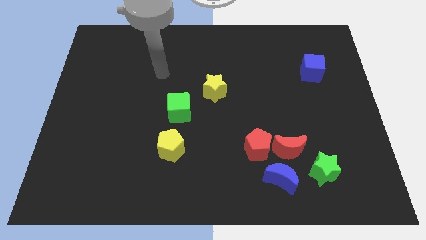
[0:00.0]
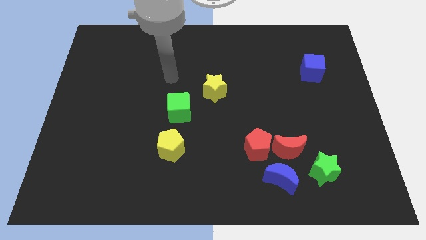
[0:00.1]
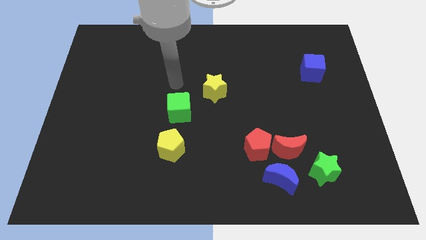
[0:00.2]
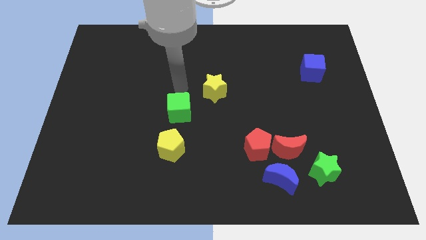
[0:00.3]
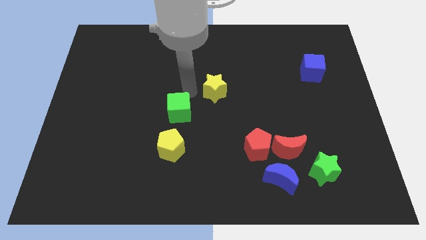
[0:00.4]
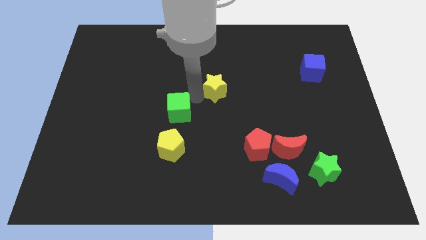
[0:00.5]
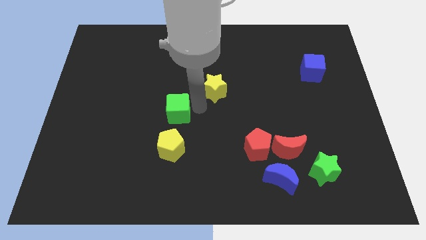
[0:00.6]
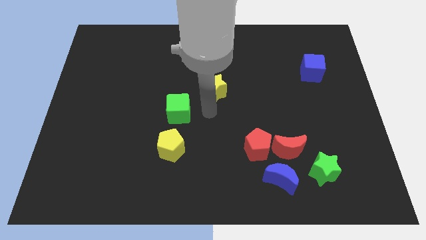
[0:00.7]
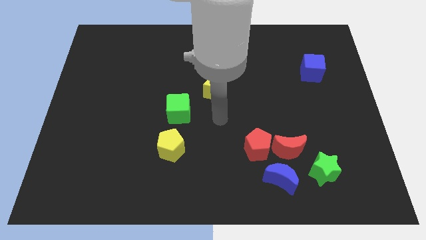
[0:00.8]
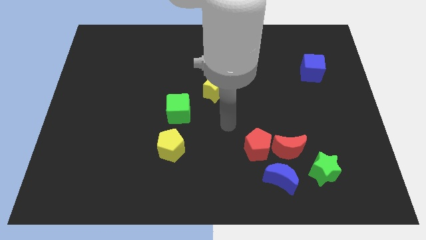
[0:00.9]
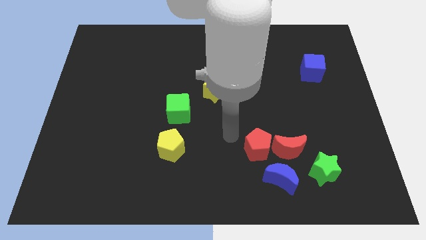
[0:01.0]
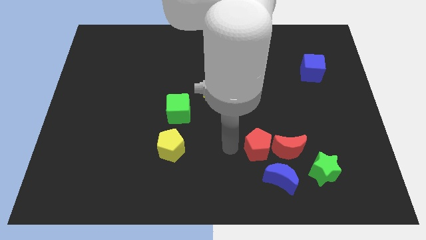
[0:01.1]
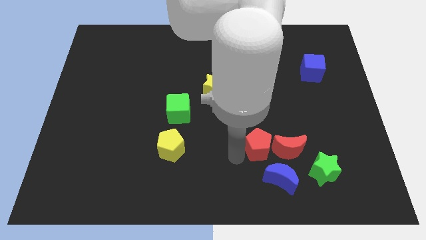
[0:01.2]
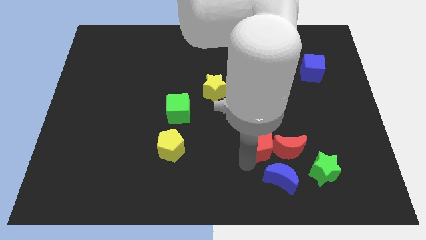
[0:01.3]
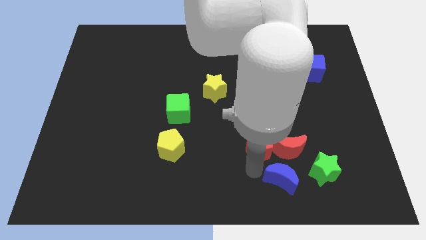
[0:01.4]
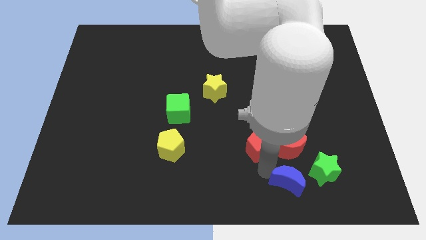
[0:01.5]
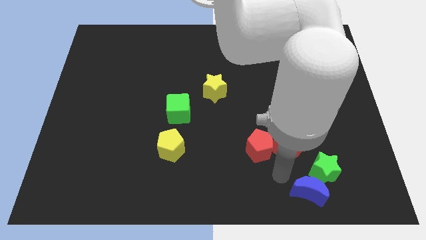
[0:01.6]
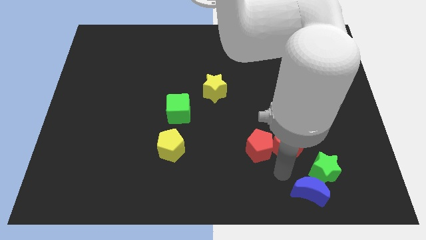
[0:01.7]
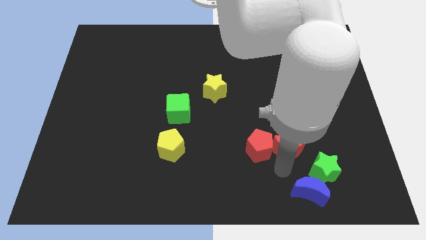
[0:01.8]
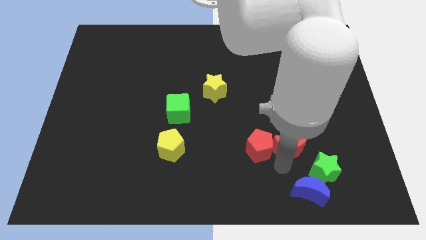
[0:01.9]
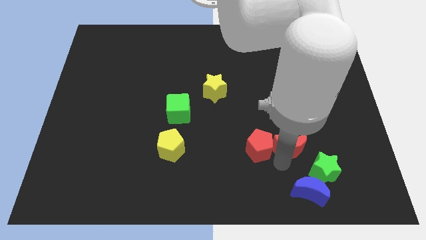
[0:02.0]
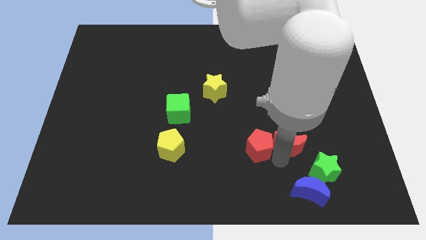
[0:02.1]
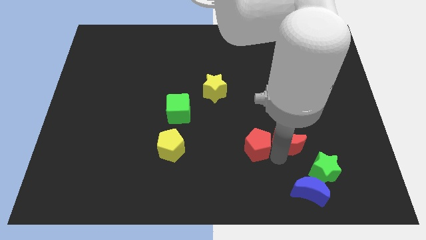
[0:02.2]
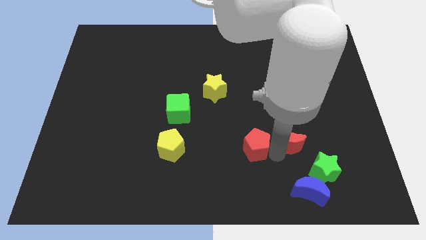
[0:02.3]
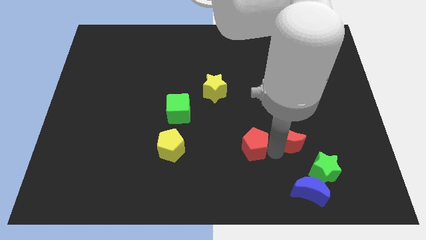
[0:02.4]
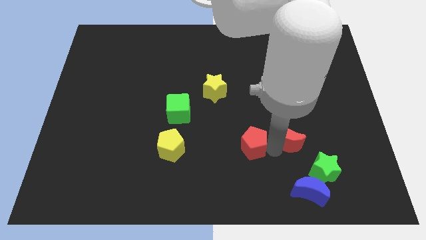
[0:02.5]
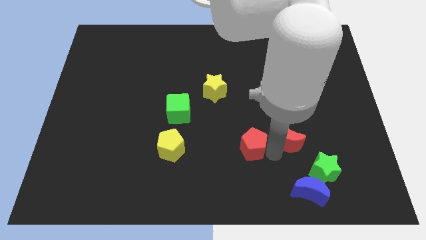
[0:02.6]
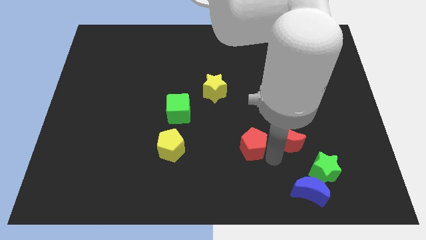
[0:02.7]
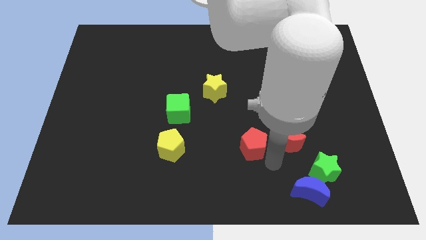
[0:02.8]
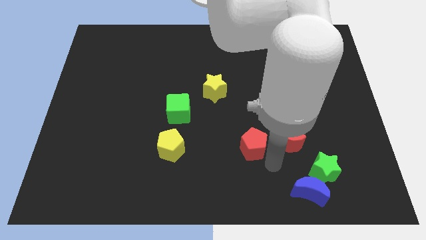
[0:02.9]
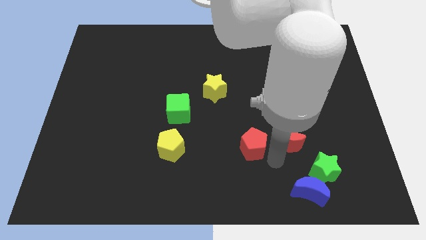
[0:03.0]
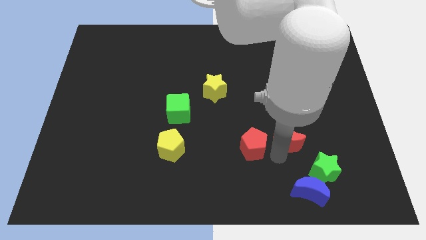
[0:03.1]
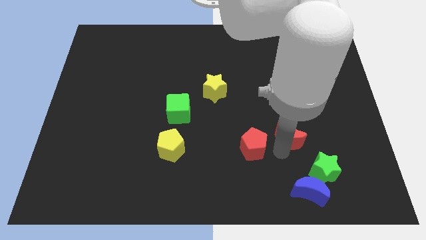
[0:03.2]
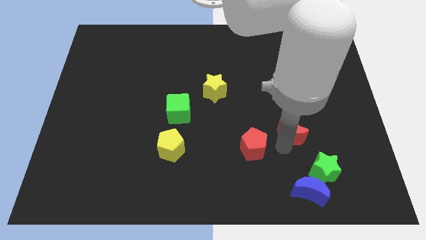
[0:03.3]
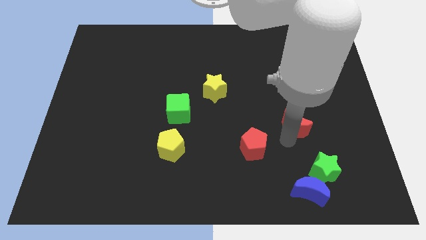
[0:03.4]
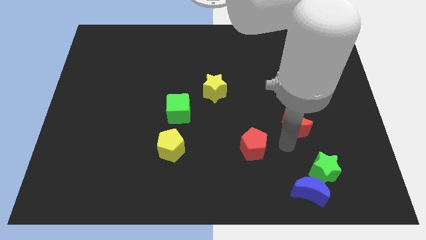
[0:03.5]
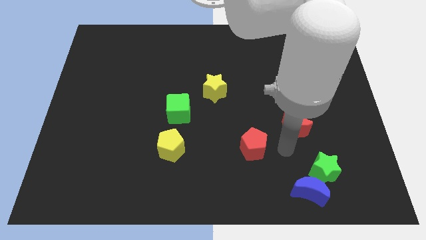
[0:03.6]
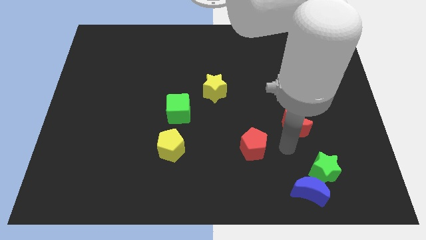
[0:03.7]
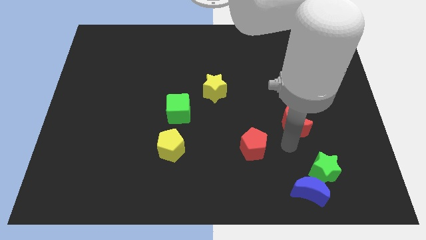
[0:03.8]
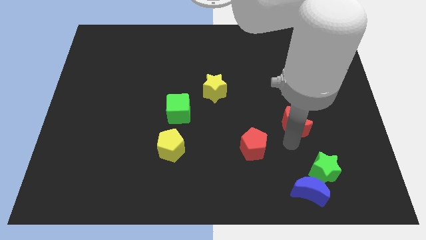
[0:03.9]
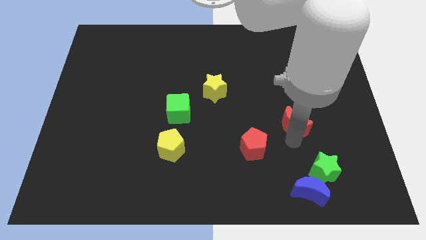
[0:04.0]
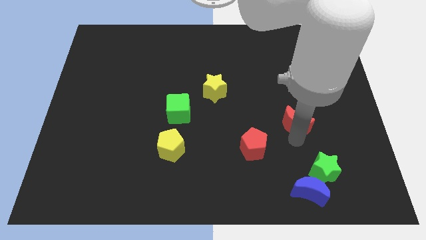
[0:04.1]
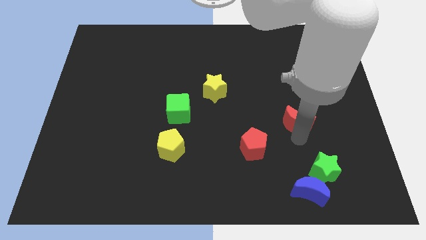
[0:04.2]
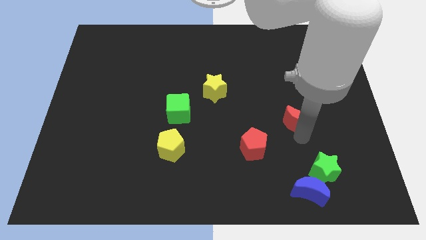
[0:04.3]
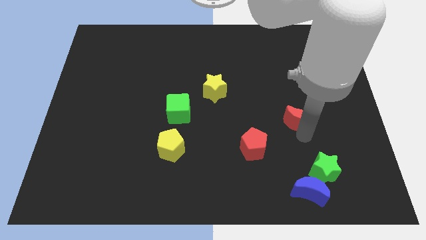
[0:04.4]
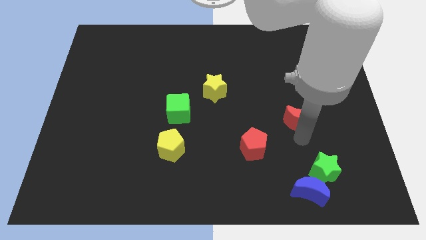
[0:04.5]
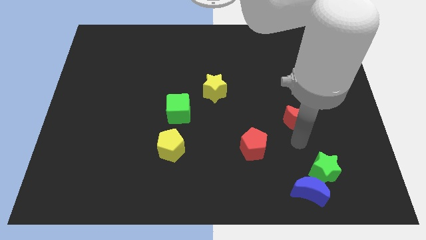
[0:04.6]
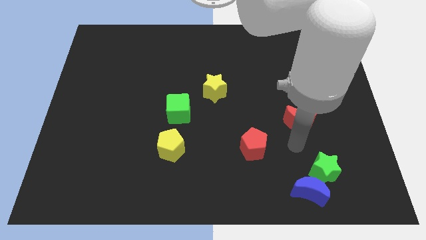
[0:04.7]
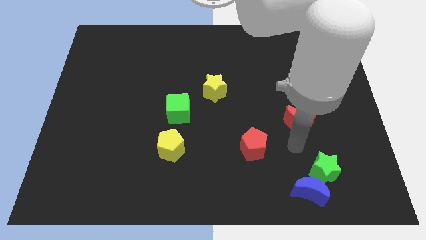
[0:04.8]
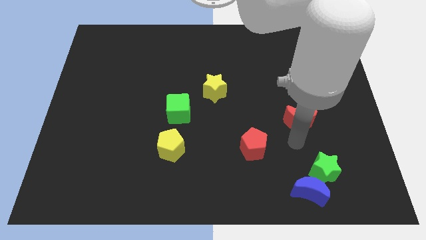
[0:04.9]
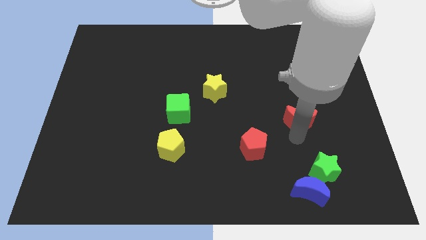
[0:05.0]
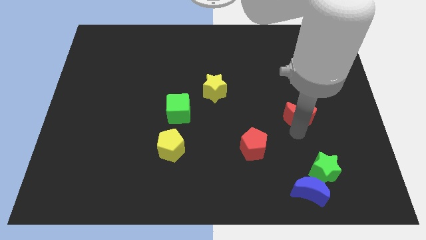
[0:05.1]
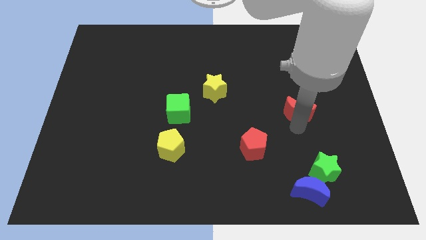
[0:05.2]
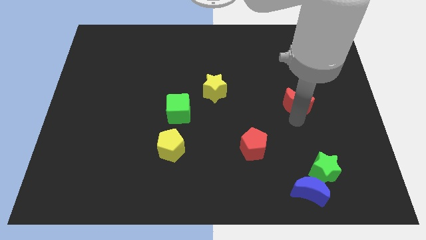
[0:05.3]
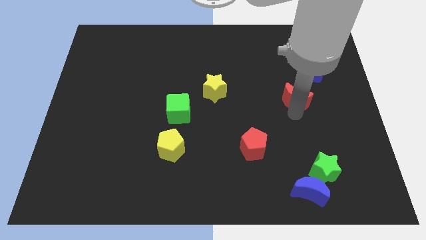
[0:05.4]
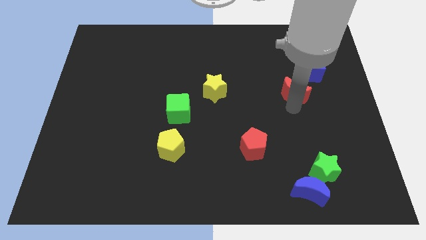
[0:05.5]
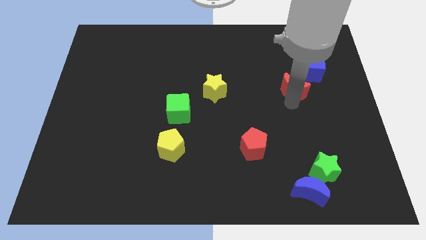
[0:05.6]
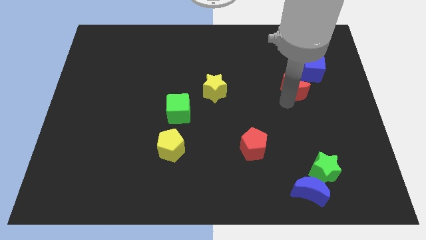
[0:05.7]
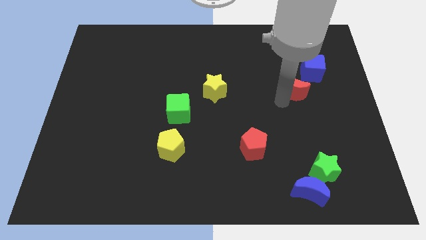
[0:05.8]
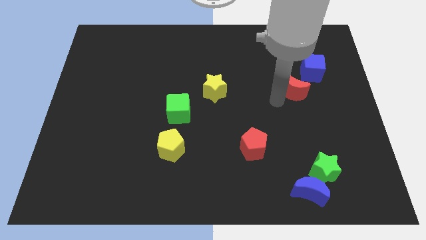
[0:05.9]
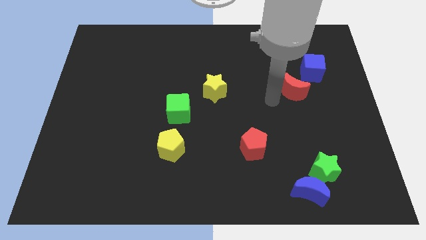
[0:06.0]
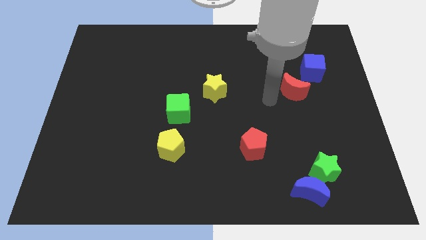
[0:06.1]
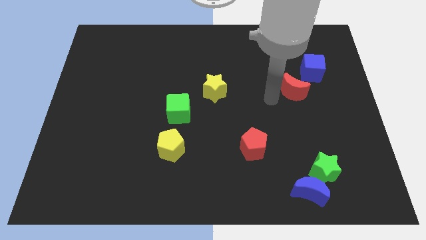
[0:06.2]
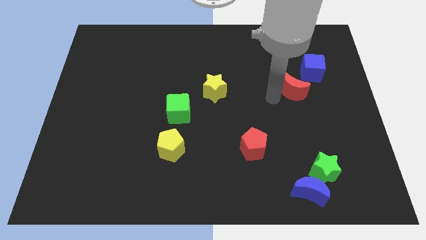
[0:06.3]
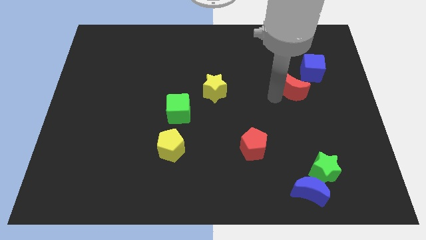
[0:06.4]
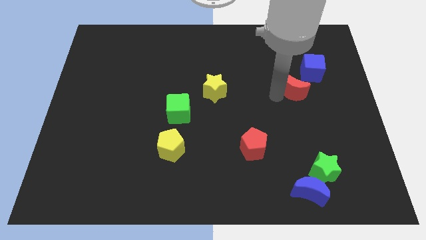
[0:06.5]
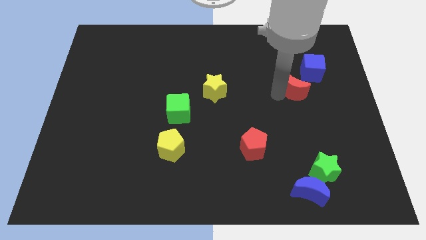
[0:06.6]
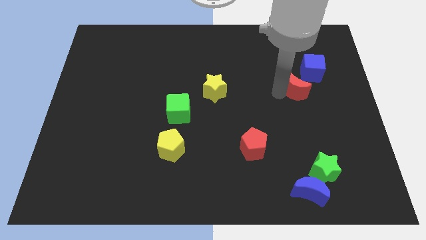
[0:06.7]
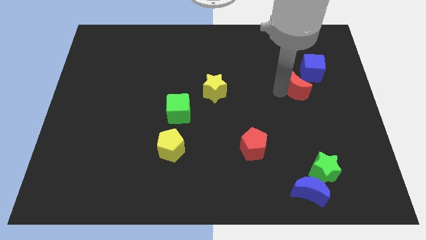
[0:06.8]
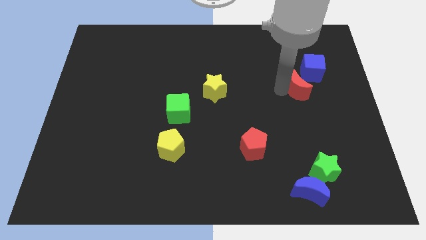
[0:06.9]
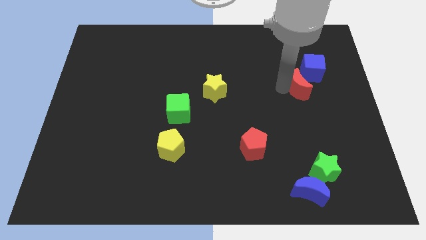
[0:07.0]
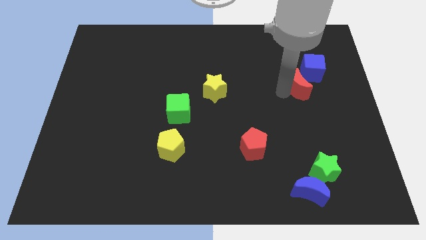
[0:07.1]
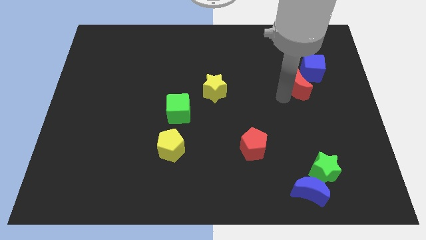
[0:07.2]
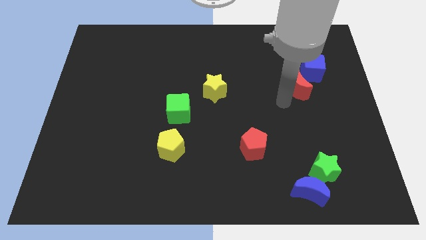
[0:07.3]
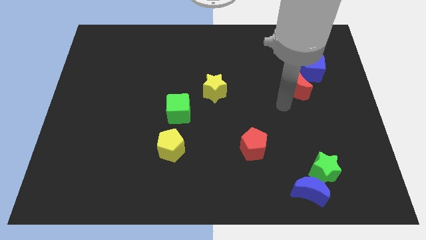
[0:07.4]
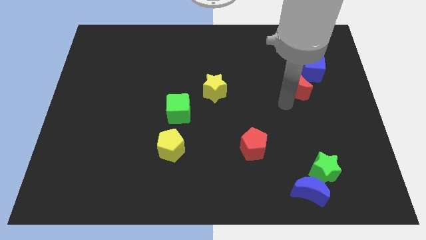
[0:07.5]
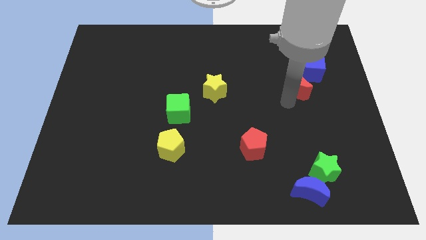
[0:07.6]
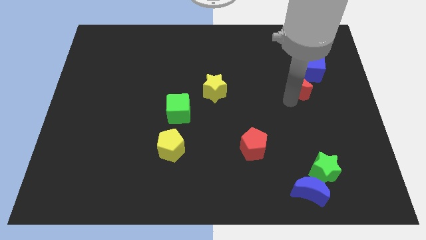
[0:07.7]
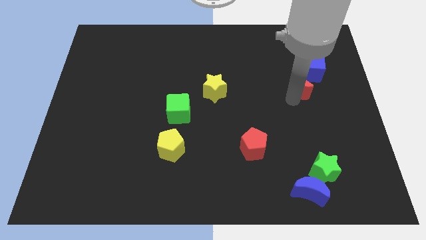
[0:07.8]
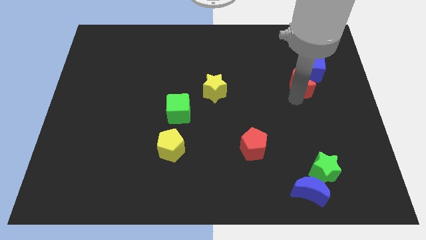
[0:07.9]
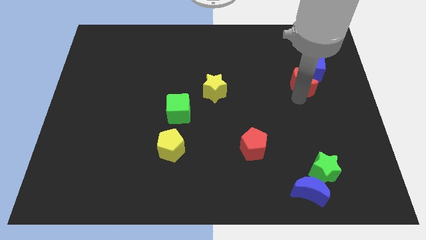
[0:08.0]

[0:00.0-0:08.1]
push the red moon towards the blue cube
